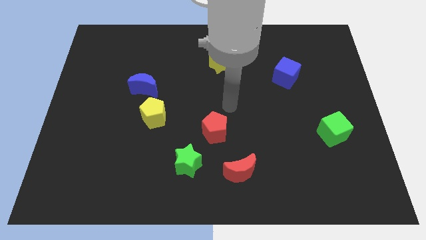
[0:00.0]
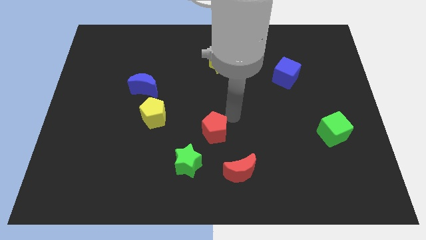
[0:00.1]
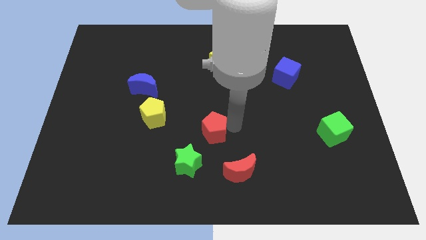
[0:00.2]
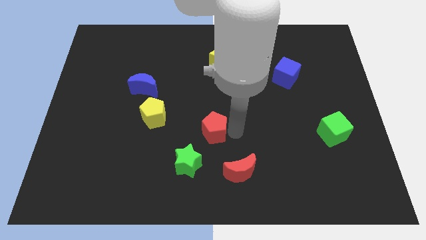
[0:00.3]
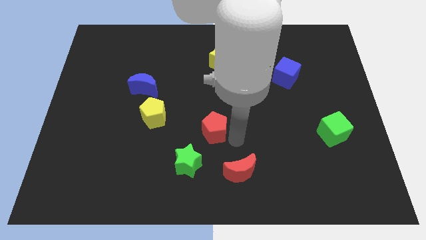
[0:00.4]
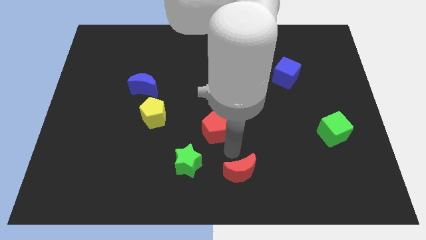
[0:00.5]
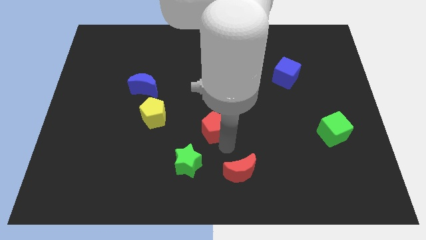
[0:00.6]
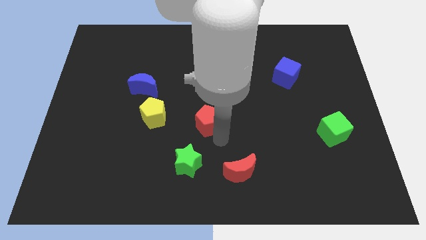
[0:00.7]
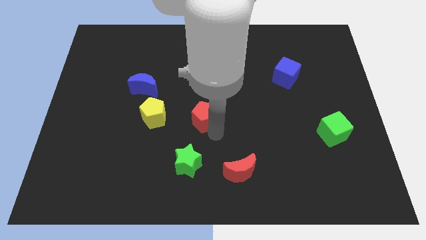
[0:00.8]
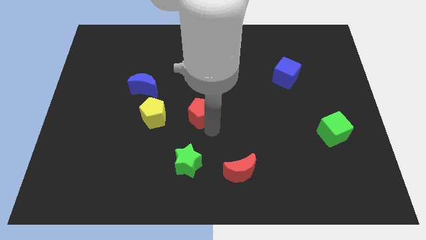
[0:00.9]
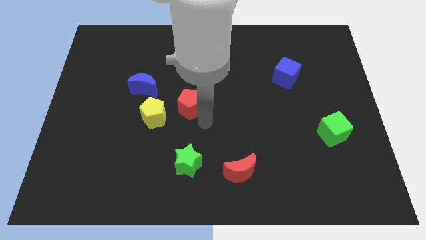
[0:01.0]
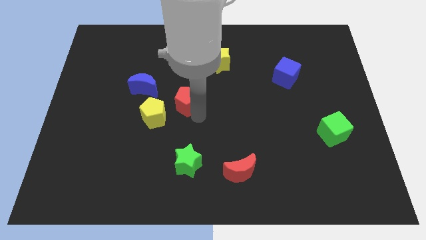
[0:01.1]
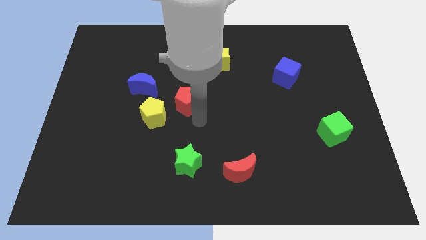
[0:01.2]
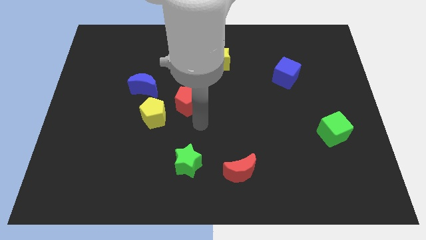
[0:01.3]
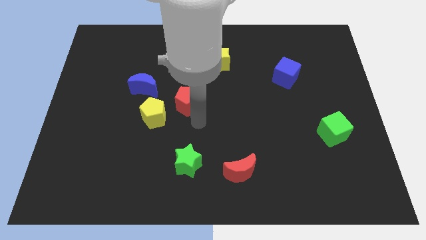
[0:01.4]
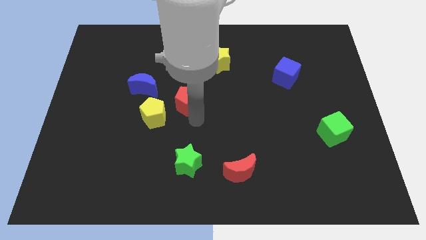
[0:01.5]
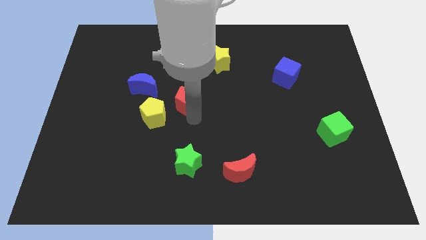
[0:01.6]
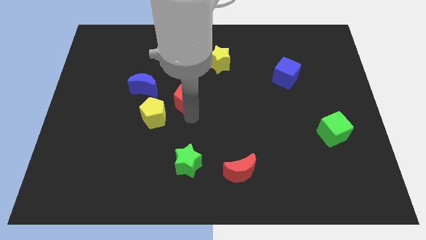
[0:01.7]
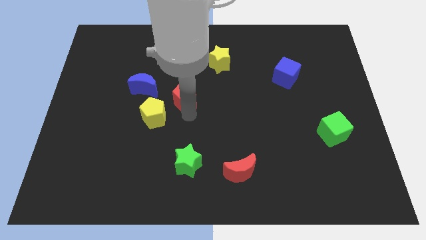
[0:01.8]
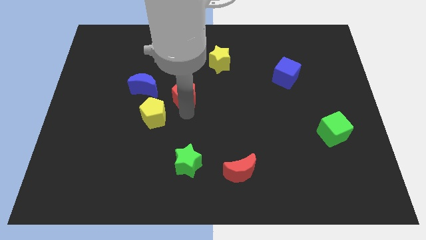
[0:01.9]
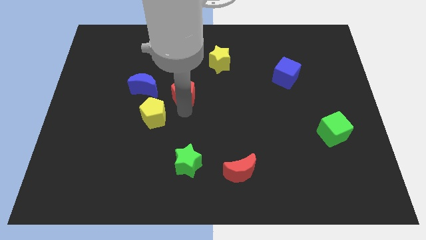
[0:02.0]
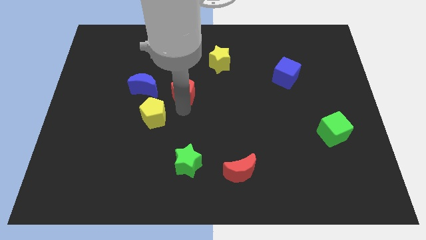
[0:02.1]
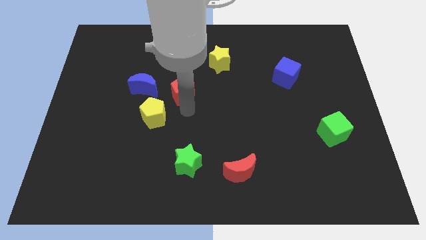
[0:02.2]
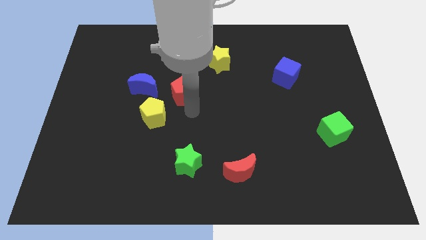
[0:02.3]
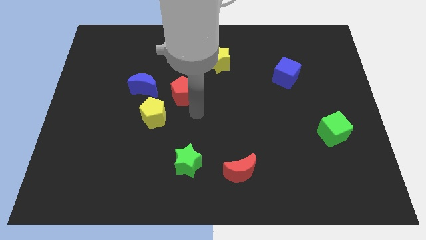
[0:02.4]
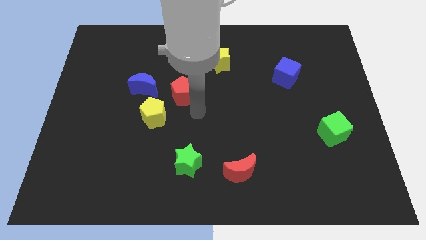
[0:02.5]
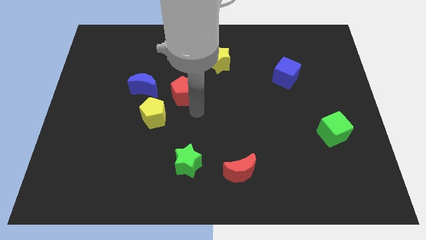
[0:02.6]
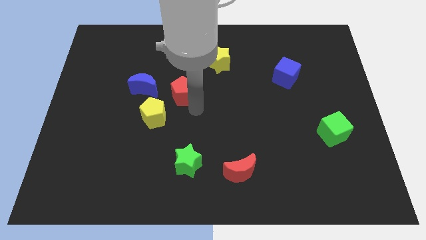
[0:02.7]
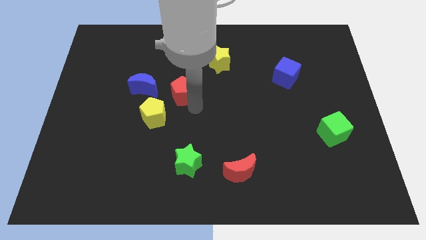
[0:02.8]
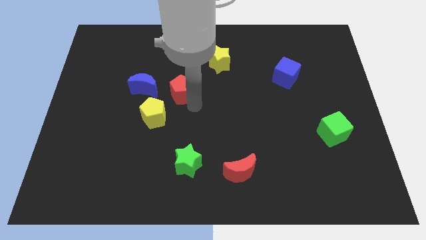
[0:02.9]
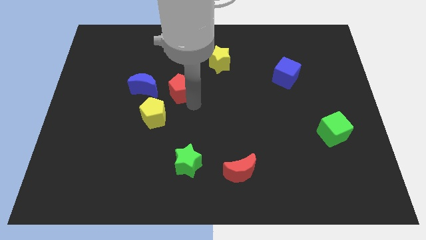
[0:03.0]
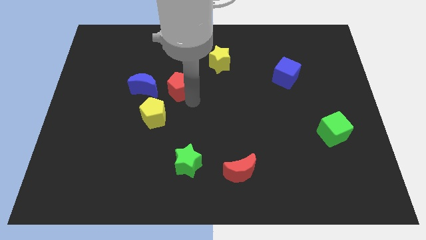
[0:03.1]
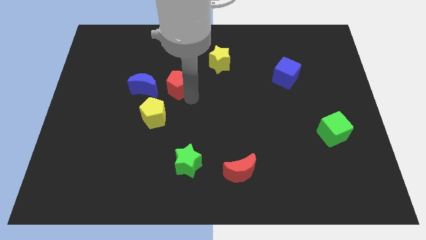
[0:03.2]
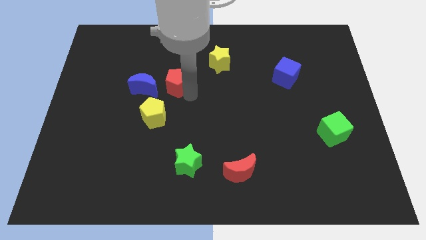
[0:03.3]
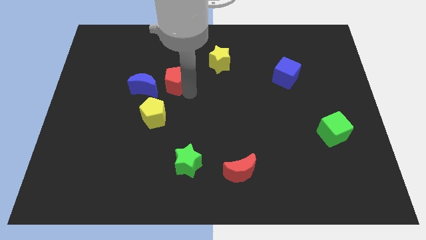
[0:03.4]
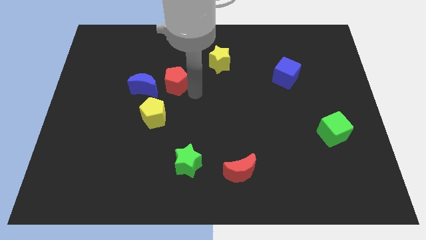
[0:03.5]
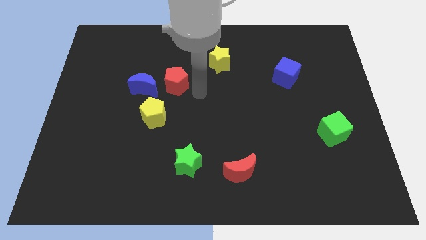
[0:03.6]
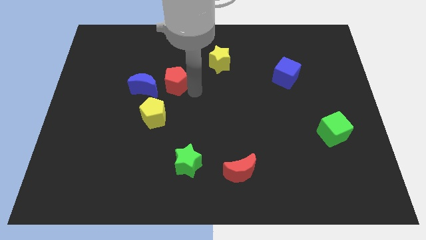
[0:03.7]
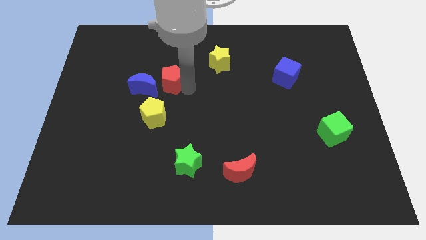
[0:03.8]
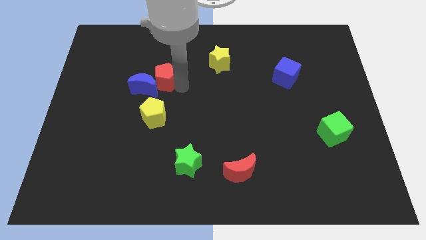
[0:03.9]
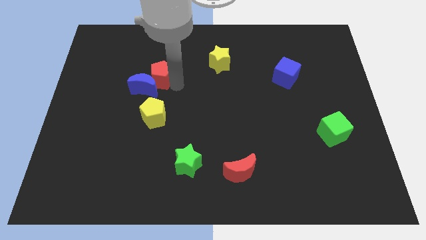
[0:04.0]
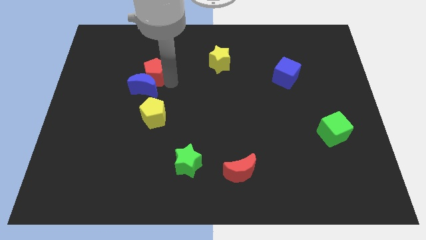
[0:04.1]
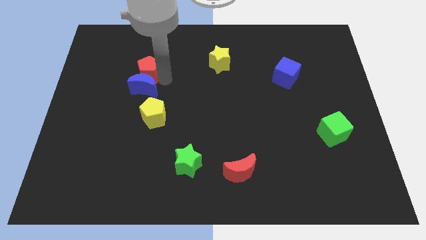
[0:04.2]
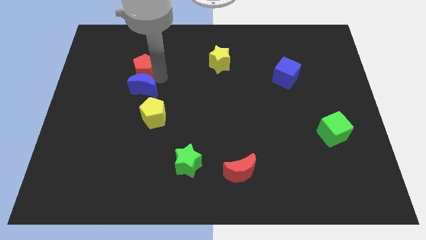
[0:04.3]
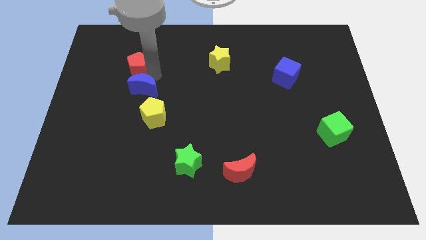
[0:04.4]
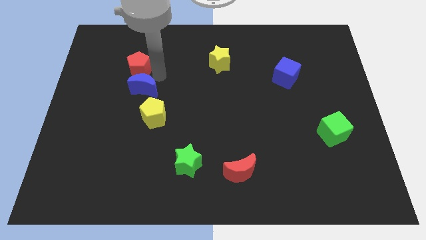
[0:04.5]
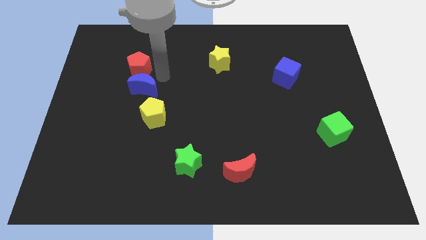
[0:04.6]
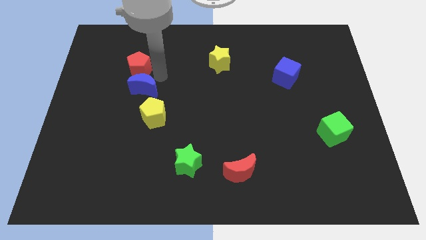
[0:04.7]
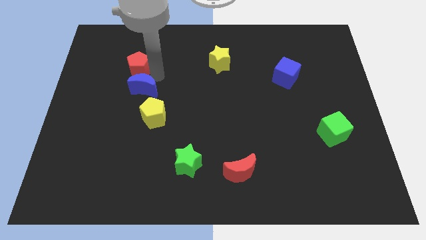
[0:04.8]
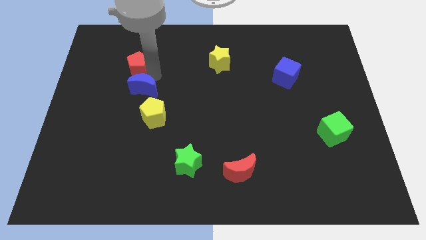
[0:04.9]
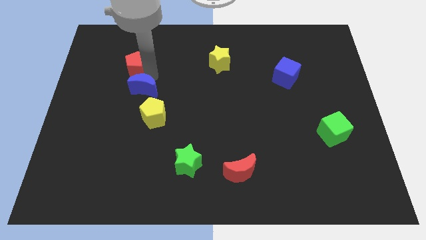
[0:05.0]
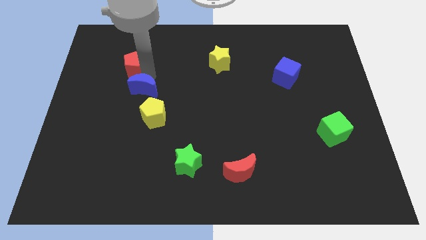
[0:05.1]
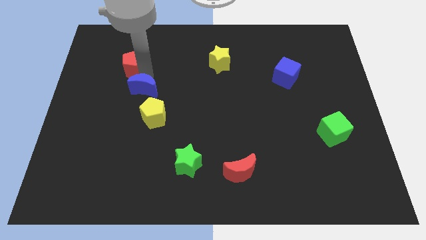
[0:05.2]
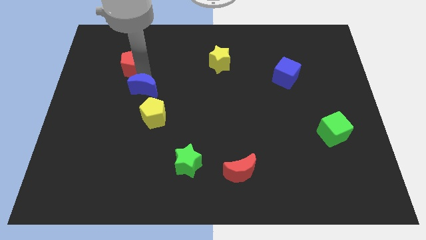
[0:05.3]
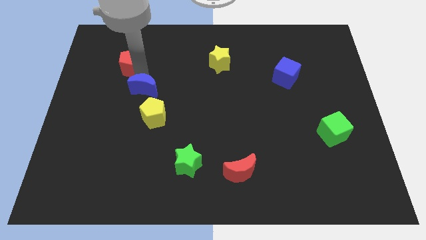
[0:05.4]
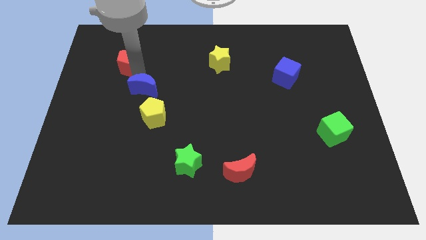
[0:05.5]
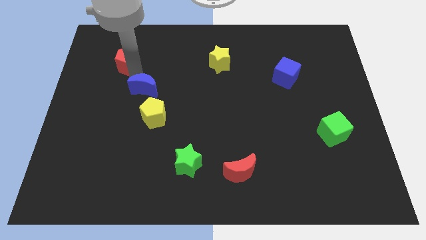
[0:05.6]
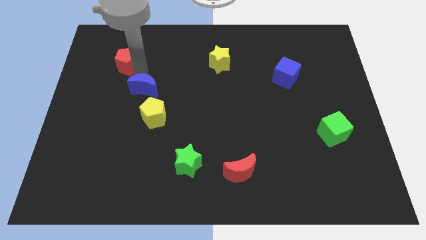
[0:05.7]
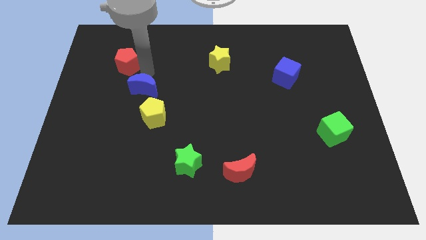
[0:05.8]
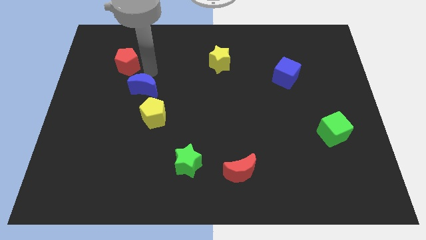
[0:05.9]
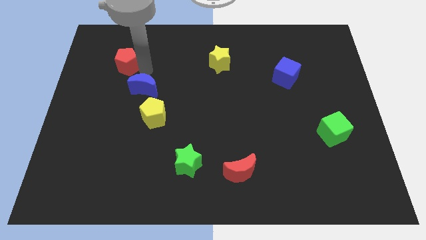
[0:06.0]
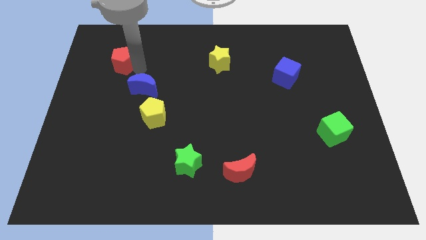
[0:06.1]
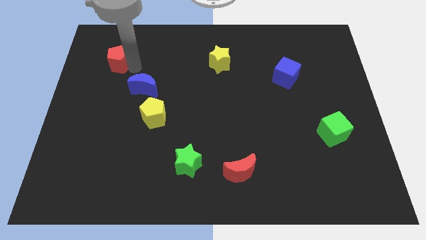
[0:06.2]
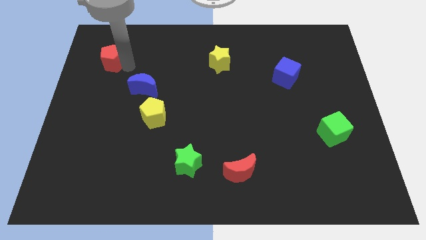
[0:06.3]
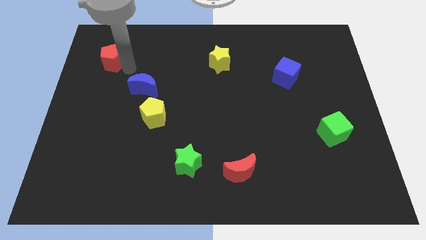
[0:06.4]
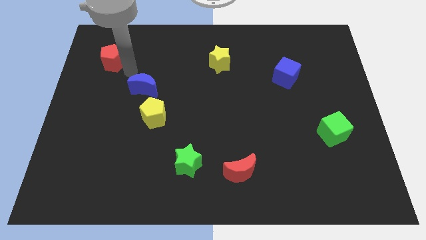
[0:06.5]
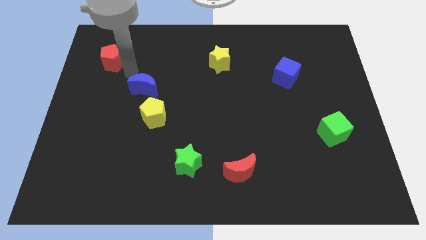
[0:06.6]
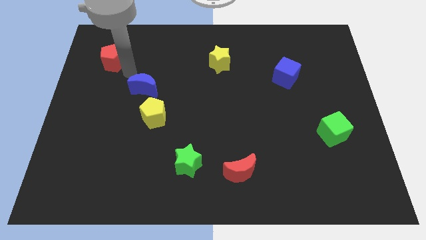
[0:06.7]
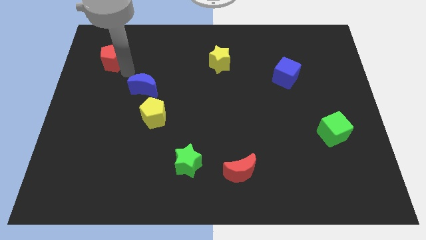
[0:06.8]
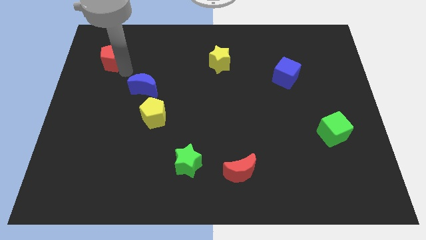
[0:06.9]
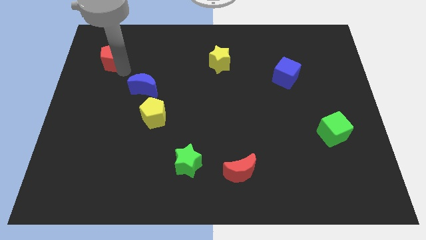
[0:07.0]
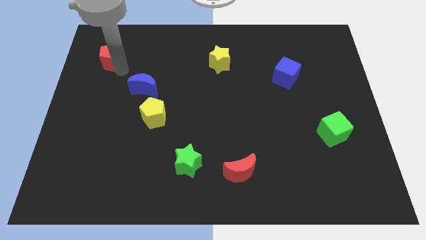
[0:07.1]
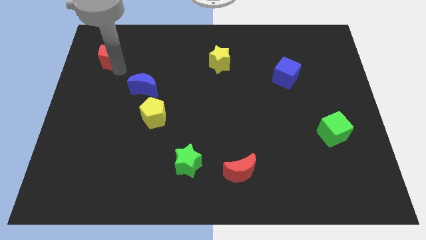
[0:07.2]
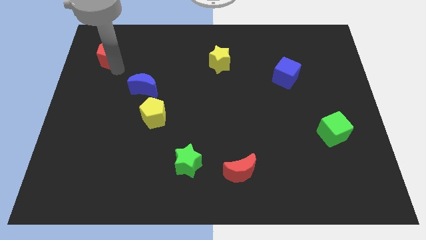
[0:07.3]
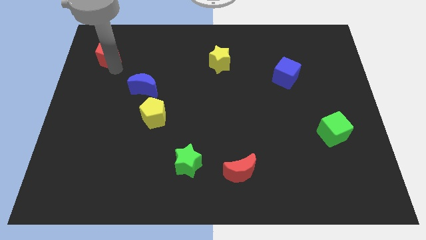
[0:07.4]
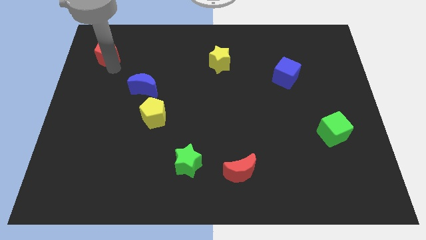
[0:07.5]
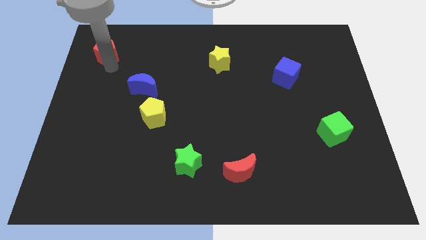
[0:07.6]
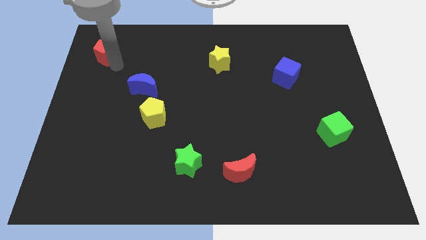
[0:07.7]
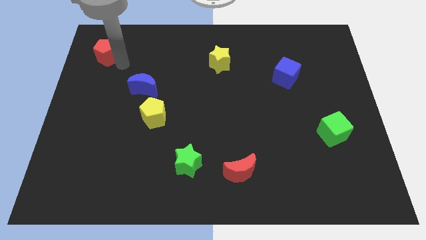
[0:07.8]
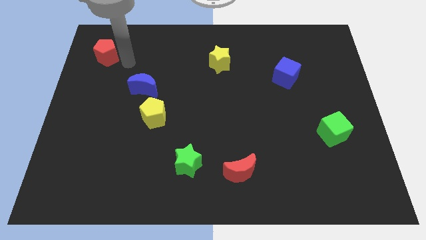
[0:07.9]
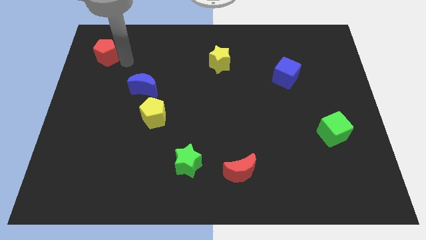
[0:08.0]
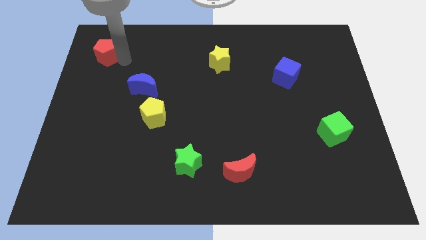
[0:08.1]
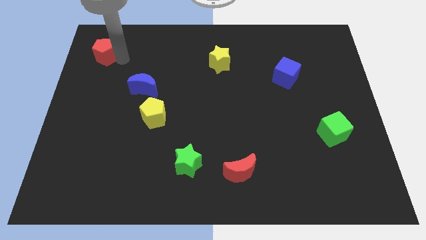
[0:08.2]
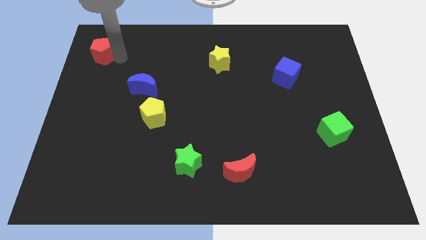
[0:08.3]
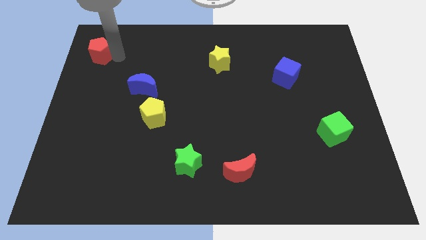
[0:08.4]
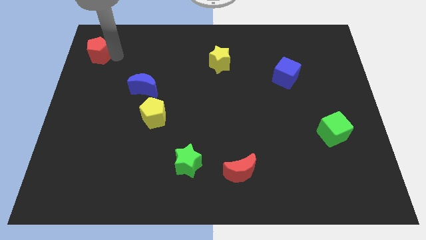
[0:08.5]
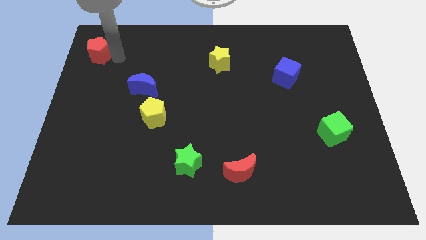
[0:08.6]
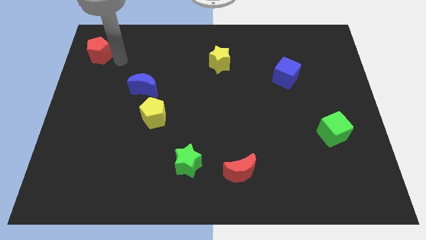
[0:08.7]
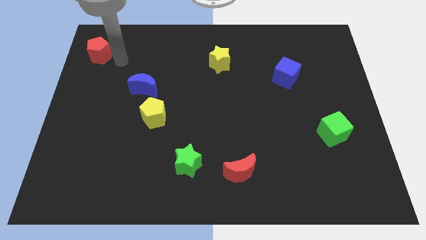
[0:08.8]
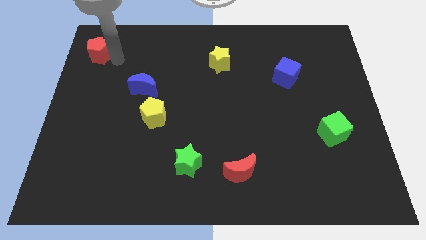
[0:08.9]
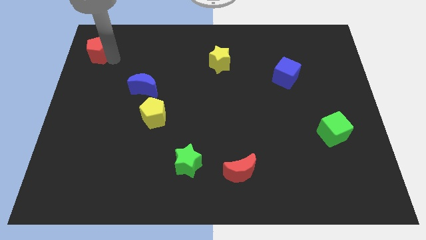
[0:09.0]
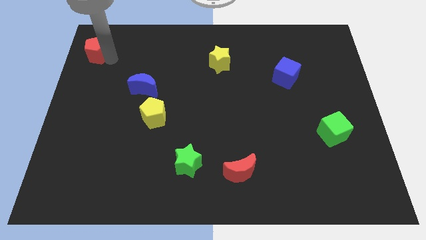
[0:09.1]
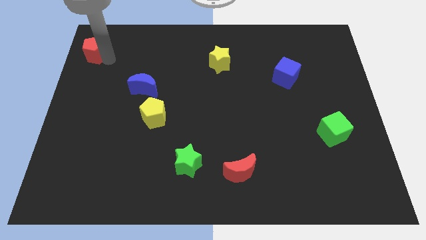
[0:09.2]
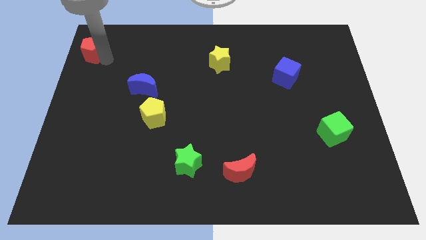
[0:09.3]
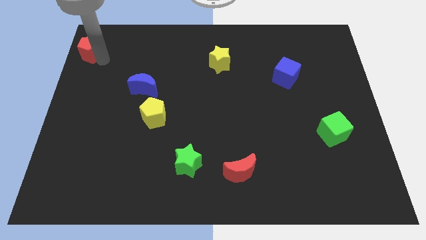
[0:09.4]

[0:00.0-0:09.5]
slide the red pentagon to the top left
